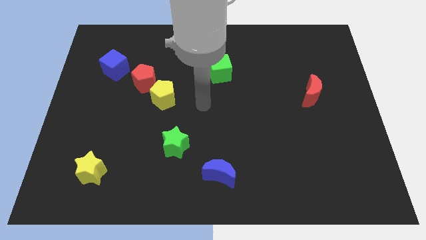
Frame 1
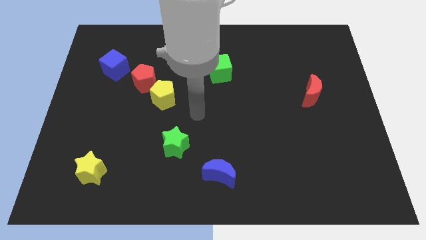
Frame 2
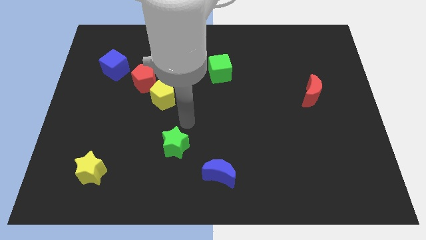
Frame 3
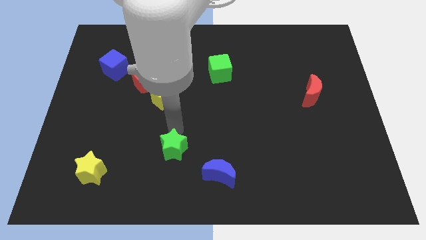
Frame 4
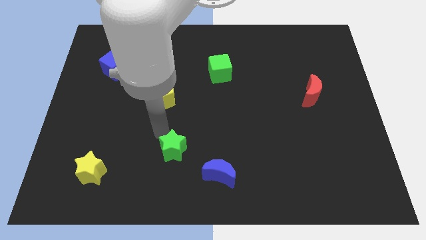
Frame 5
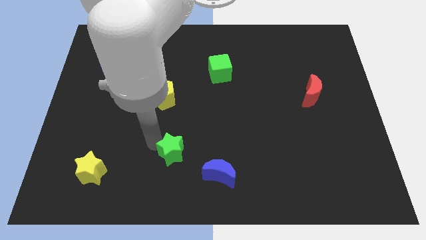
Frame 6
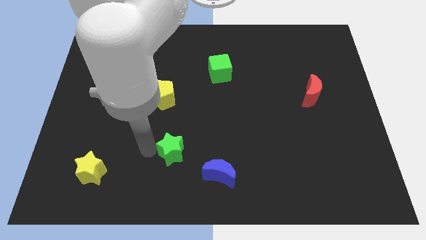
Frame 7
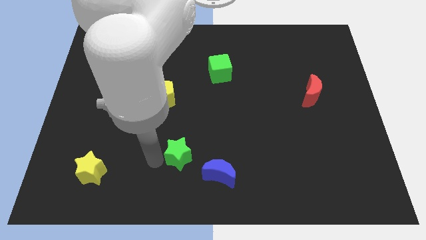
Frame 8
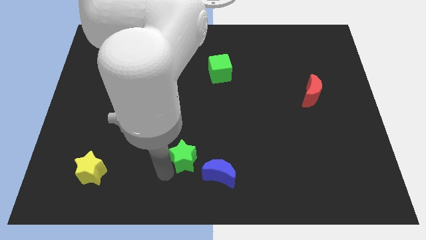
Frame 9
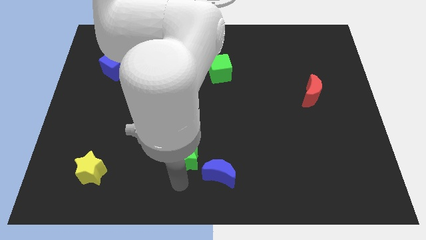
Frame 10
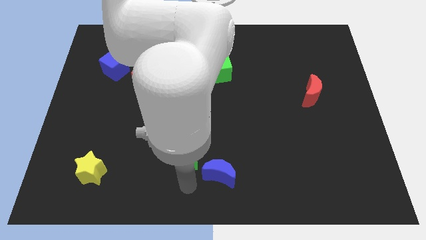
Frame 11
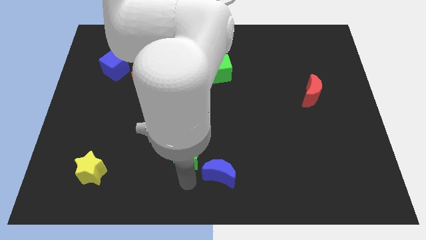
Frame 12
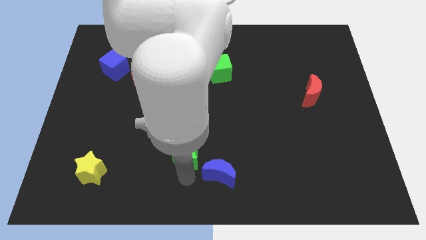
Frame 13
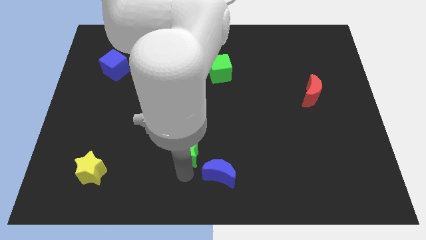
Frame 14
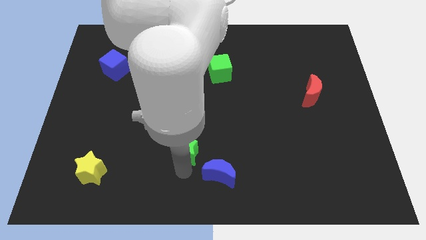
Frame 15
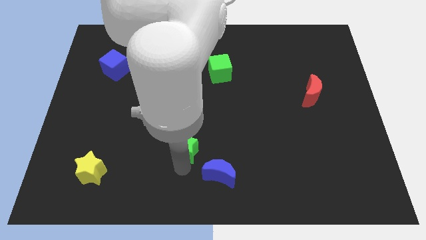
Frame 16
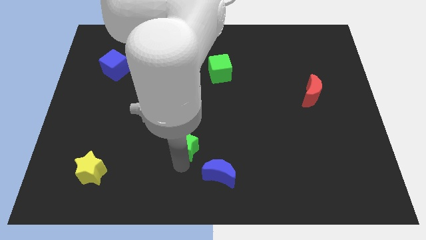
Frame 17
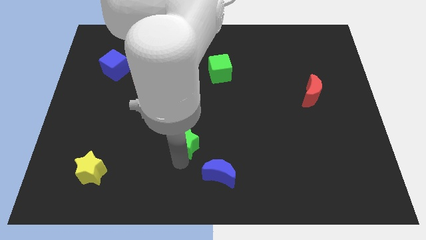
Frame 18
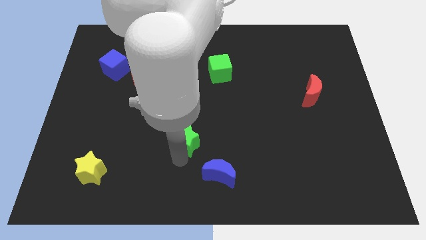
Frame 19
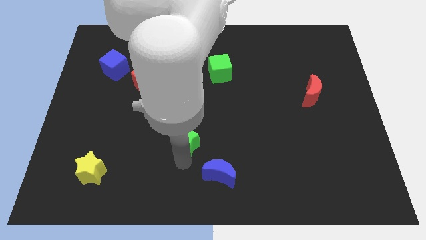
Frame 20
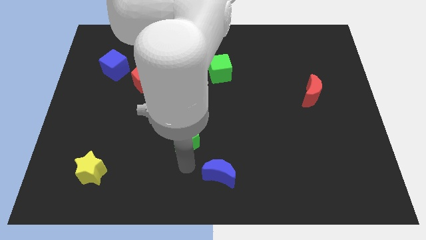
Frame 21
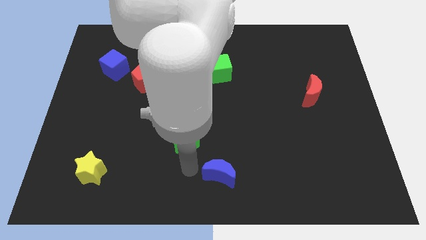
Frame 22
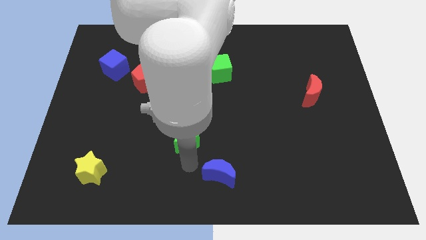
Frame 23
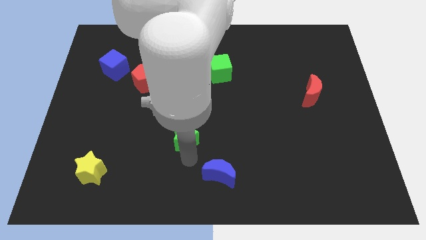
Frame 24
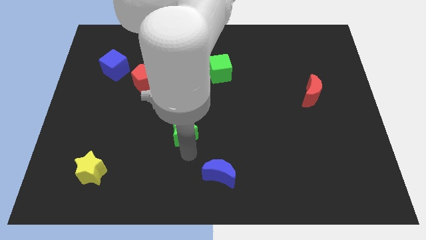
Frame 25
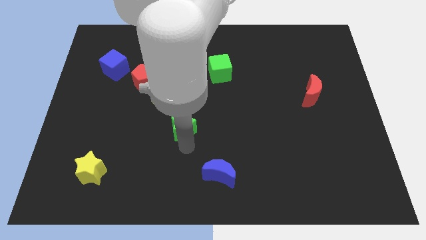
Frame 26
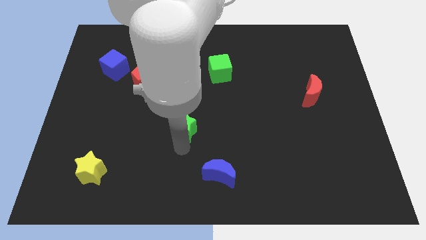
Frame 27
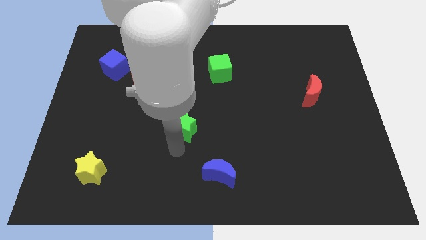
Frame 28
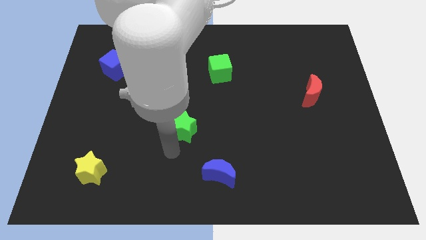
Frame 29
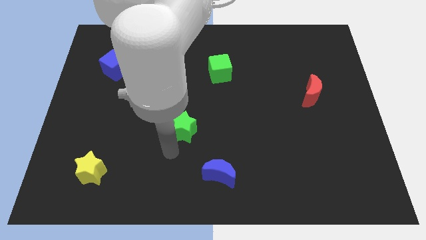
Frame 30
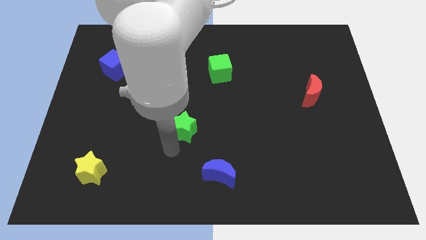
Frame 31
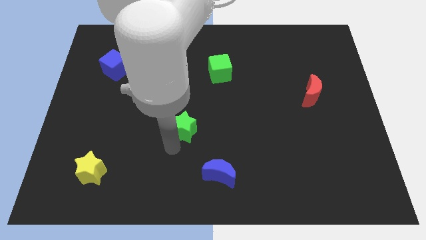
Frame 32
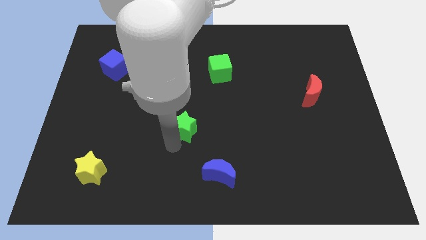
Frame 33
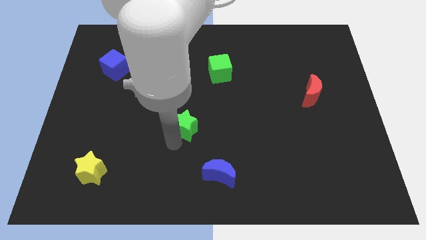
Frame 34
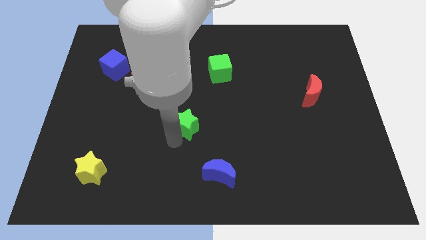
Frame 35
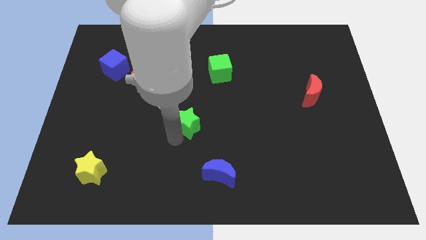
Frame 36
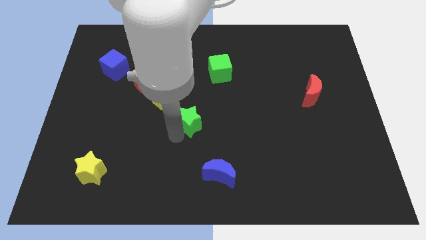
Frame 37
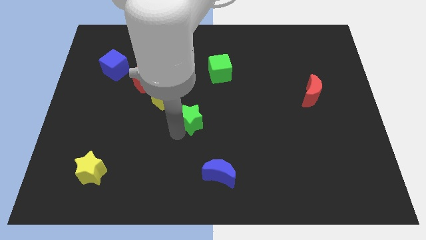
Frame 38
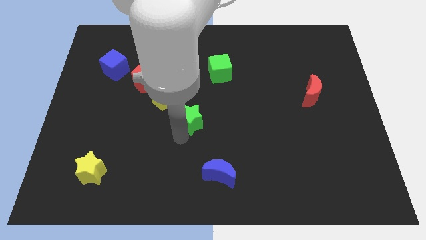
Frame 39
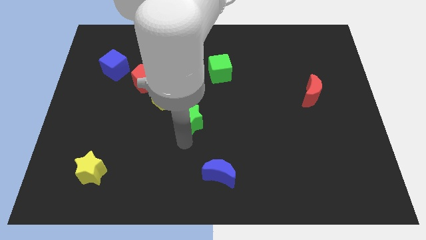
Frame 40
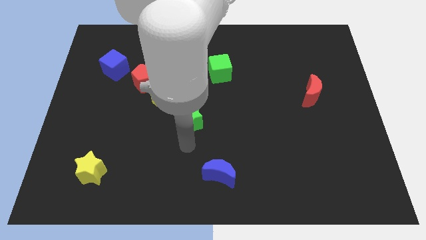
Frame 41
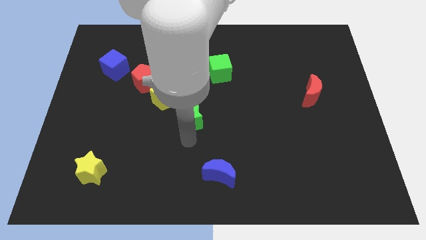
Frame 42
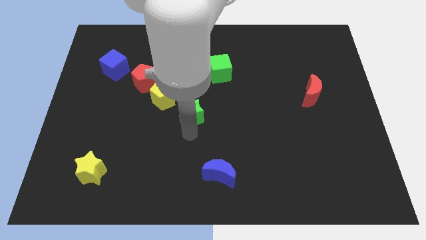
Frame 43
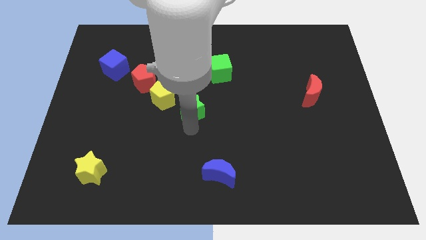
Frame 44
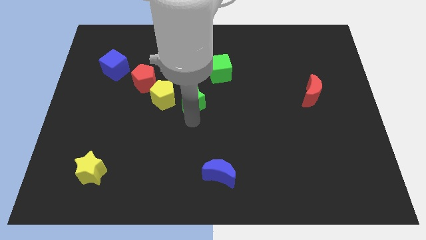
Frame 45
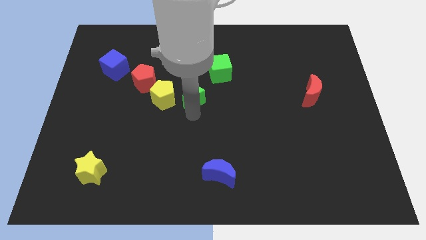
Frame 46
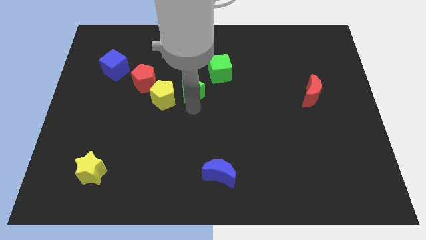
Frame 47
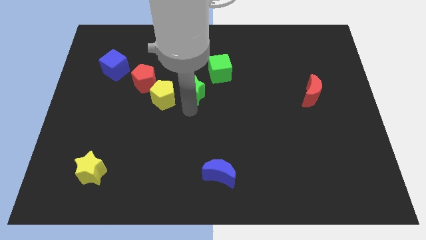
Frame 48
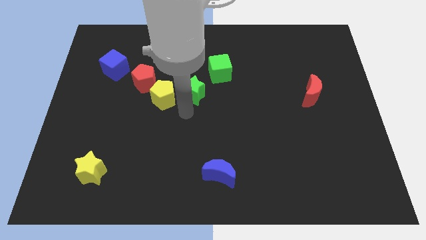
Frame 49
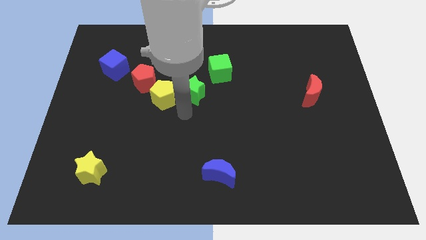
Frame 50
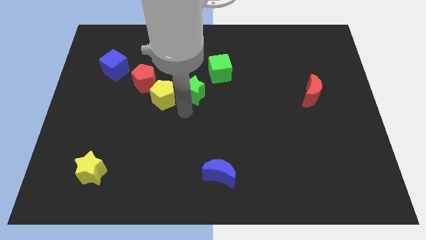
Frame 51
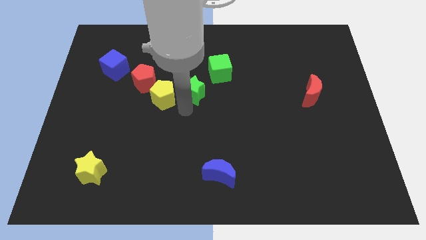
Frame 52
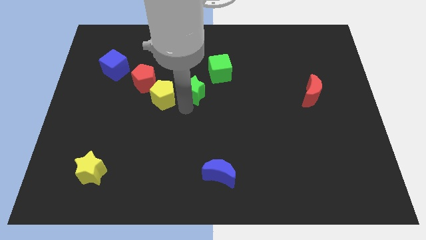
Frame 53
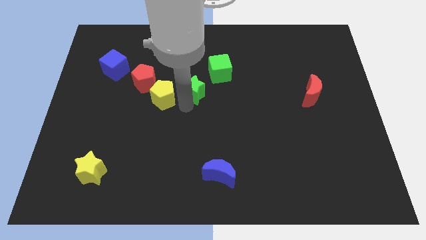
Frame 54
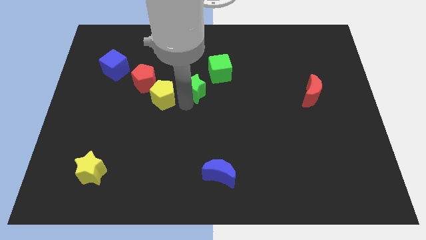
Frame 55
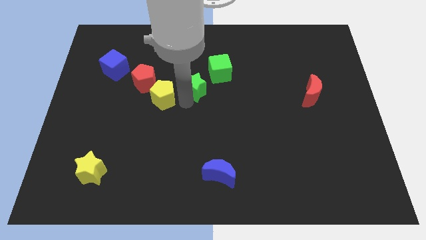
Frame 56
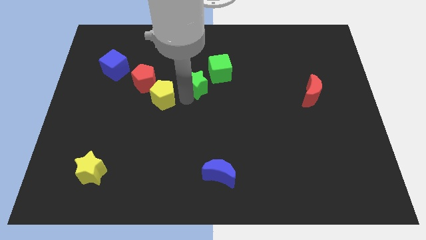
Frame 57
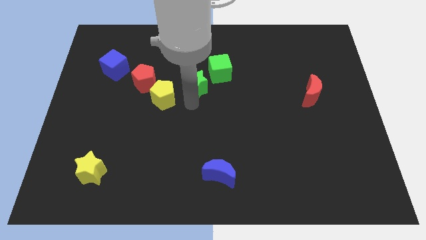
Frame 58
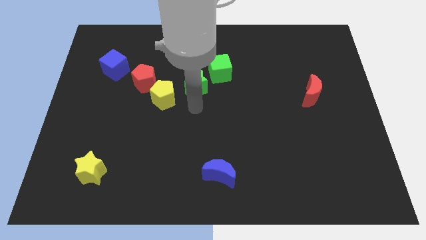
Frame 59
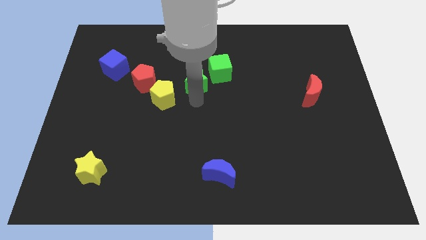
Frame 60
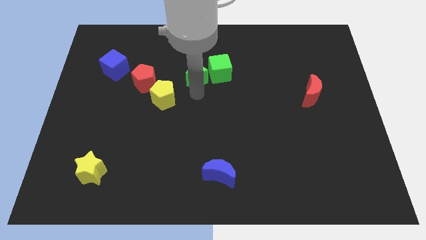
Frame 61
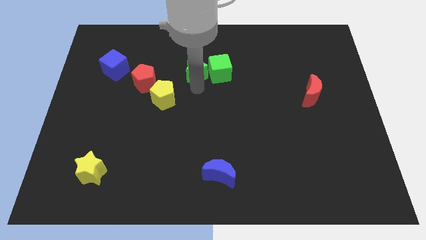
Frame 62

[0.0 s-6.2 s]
push the green star diagonally up and to the left of the green cube
